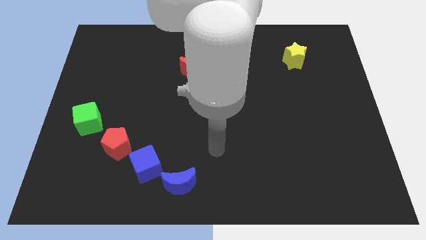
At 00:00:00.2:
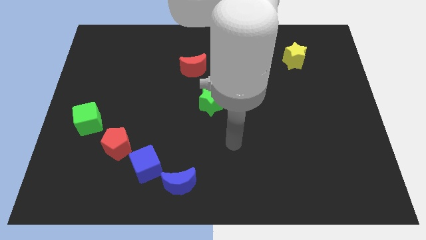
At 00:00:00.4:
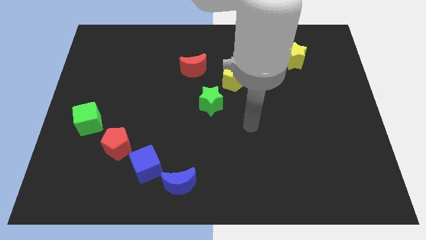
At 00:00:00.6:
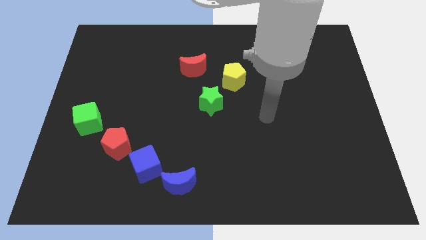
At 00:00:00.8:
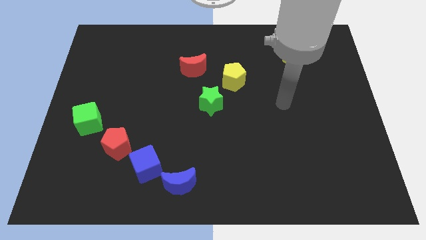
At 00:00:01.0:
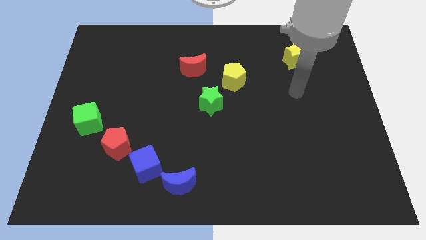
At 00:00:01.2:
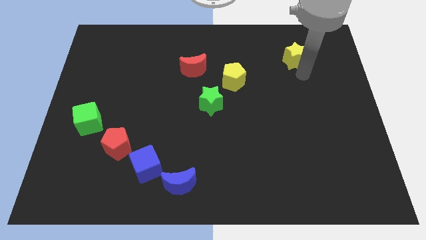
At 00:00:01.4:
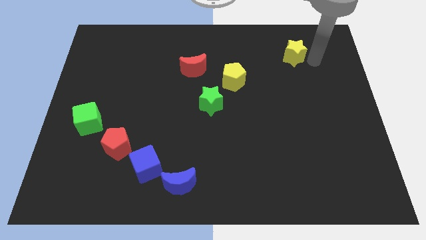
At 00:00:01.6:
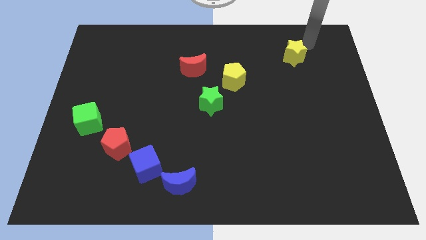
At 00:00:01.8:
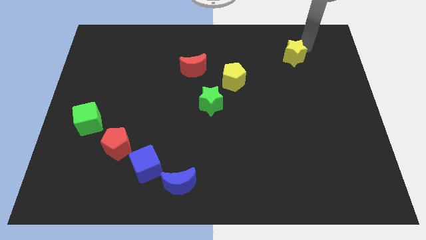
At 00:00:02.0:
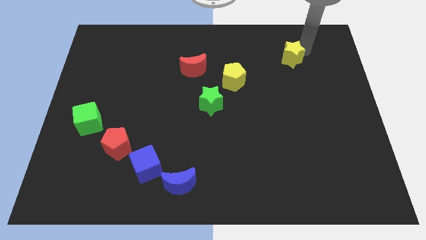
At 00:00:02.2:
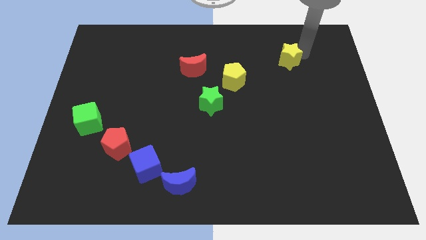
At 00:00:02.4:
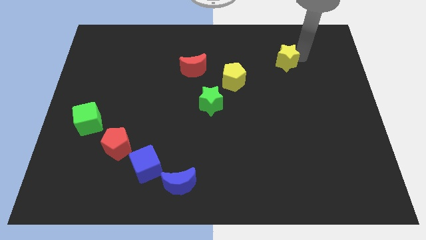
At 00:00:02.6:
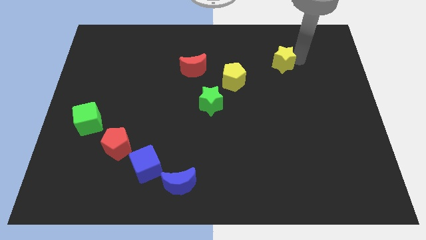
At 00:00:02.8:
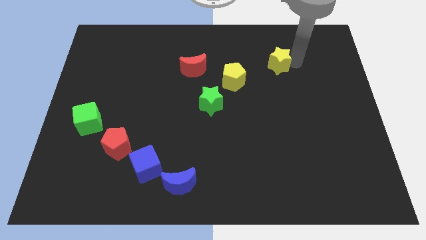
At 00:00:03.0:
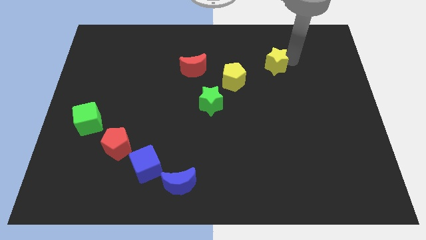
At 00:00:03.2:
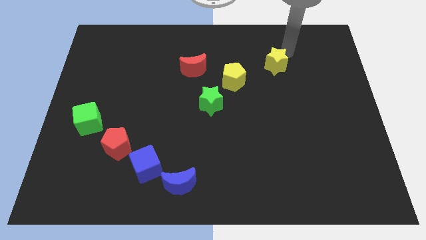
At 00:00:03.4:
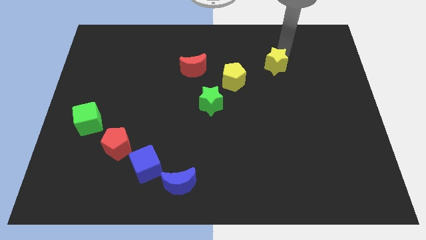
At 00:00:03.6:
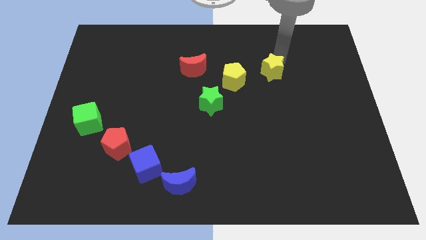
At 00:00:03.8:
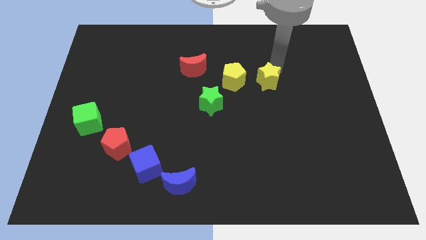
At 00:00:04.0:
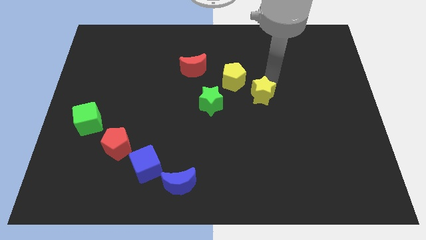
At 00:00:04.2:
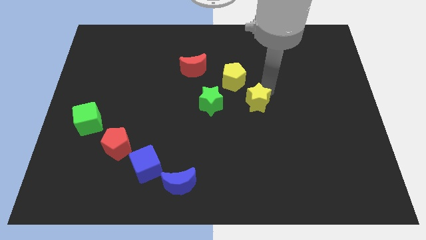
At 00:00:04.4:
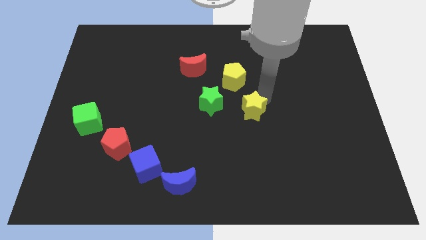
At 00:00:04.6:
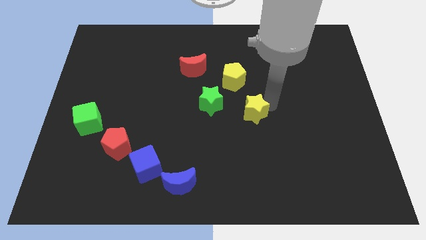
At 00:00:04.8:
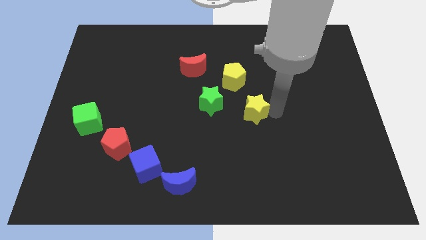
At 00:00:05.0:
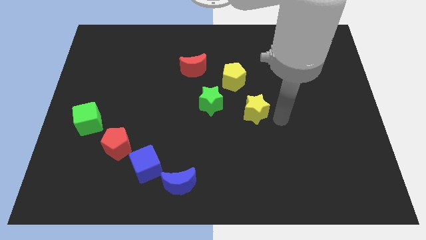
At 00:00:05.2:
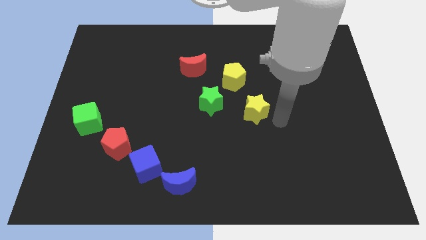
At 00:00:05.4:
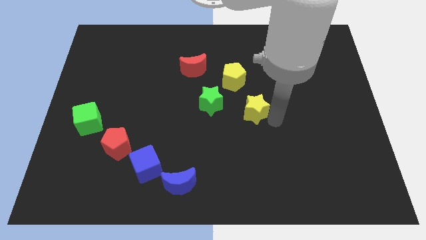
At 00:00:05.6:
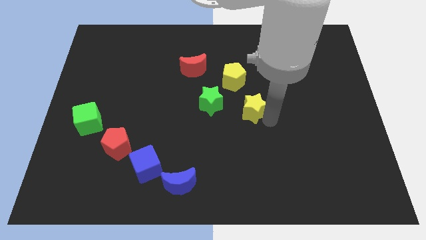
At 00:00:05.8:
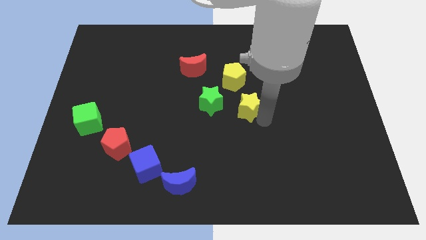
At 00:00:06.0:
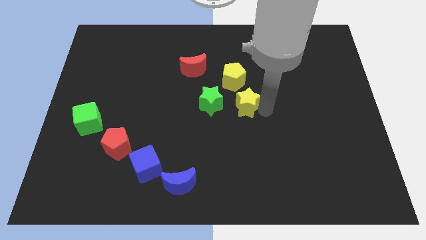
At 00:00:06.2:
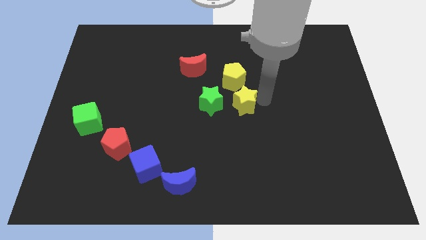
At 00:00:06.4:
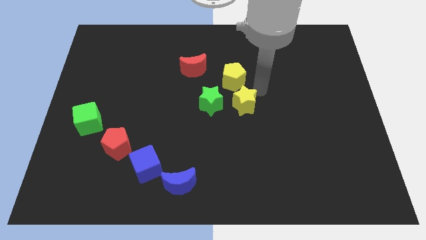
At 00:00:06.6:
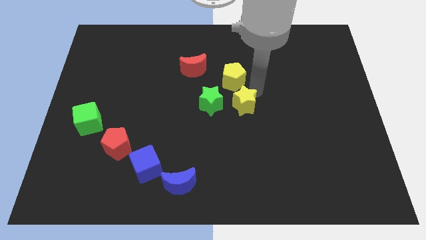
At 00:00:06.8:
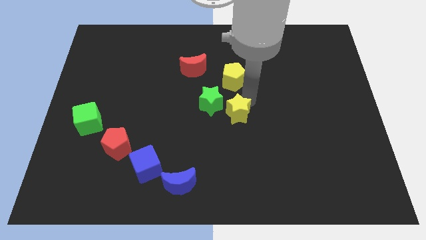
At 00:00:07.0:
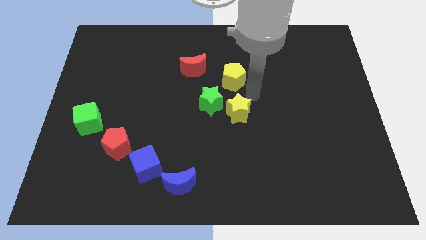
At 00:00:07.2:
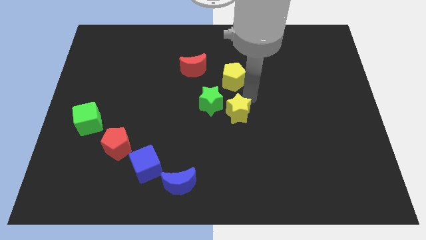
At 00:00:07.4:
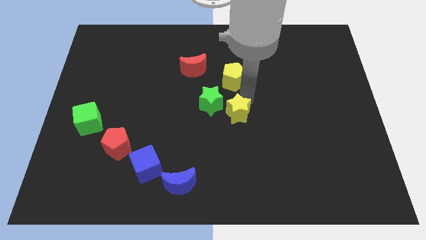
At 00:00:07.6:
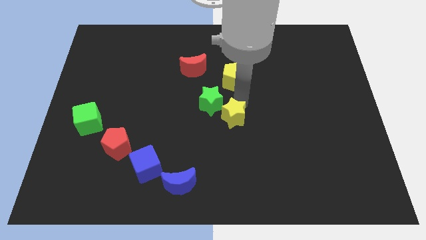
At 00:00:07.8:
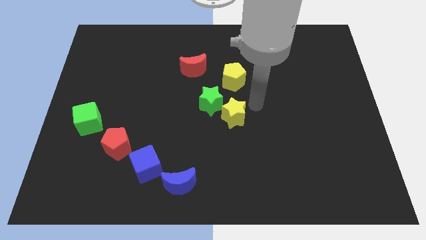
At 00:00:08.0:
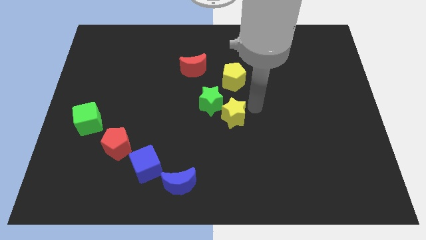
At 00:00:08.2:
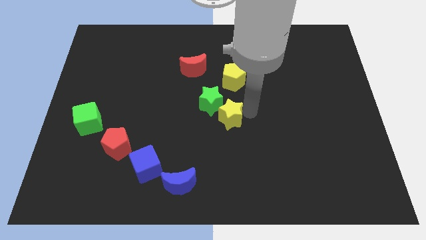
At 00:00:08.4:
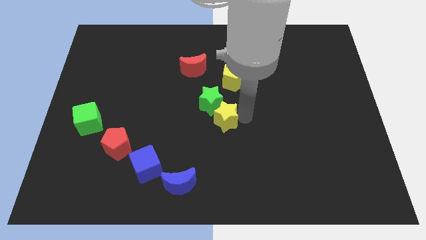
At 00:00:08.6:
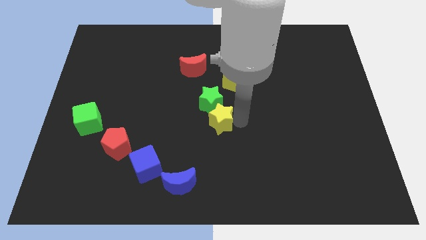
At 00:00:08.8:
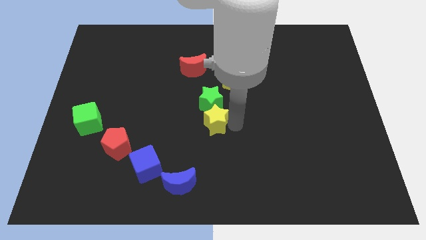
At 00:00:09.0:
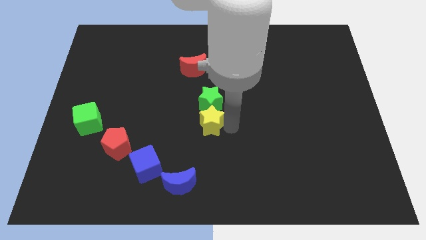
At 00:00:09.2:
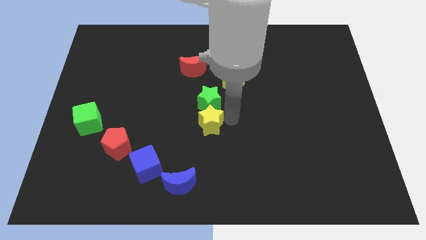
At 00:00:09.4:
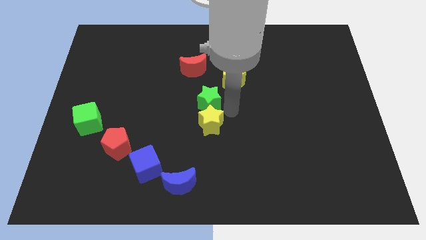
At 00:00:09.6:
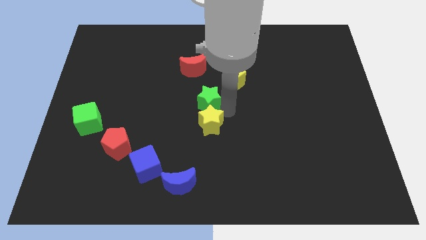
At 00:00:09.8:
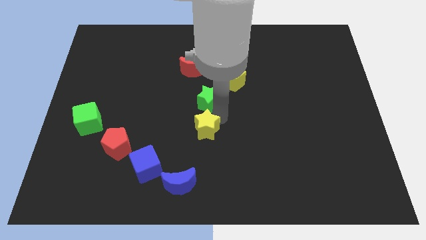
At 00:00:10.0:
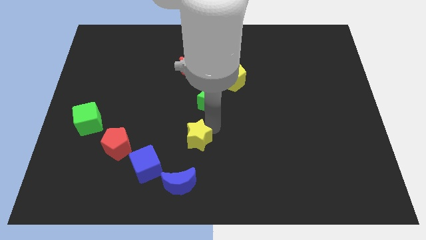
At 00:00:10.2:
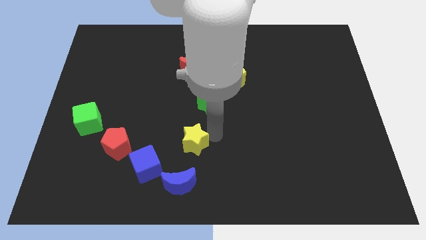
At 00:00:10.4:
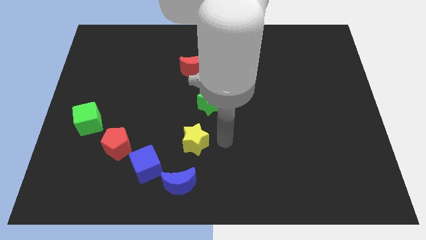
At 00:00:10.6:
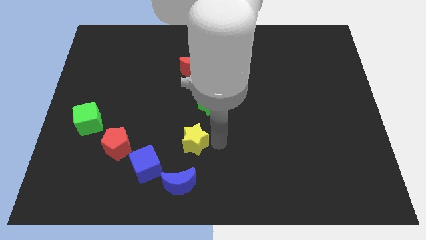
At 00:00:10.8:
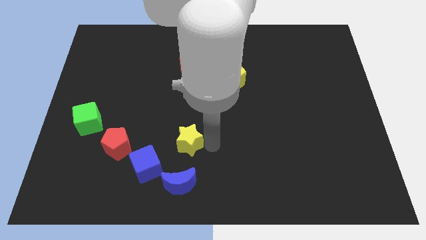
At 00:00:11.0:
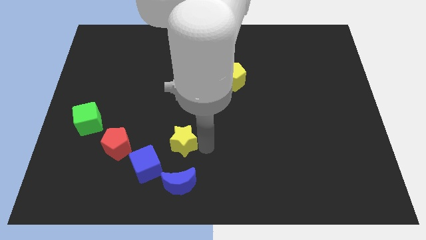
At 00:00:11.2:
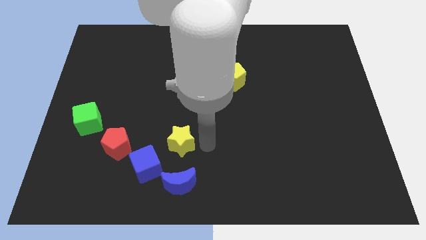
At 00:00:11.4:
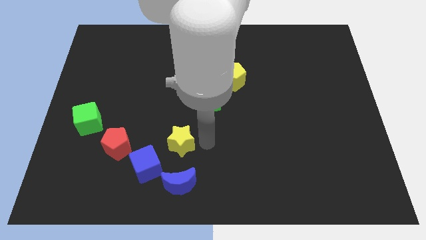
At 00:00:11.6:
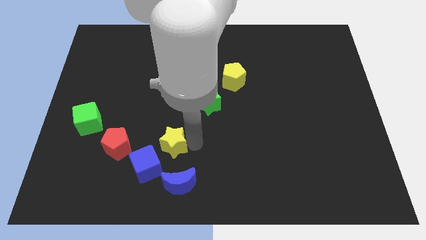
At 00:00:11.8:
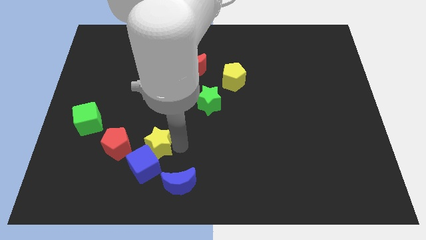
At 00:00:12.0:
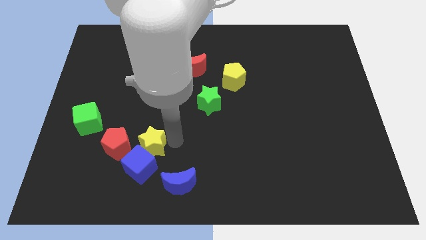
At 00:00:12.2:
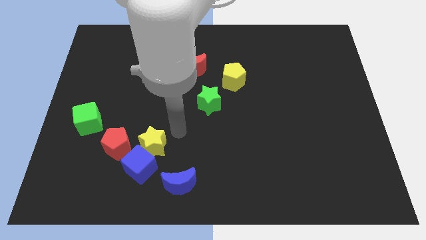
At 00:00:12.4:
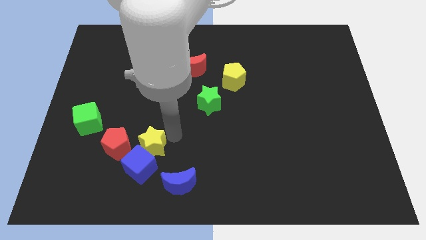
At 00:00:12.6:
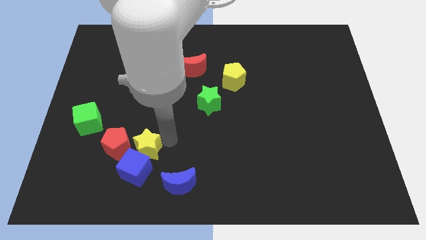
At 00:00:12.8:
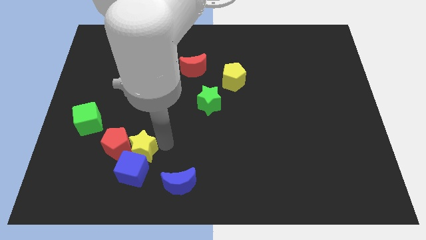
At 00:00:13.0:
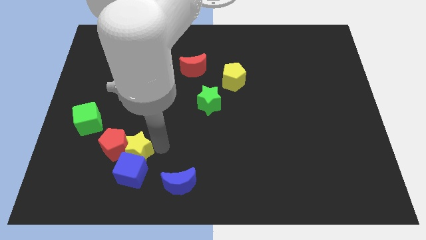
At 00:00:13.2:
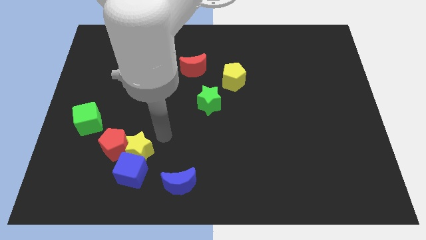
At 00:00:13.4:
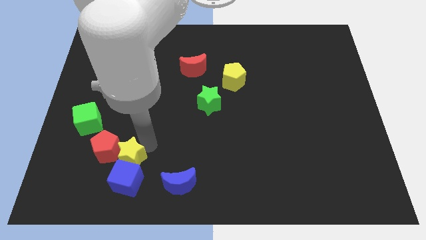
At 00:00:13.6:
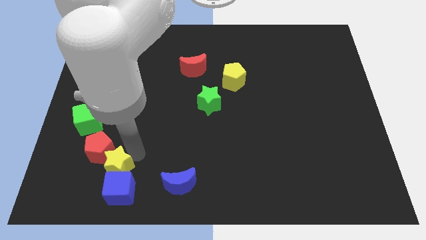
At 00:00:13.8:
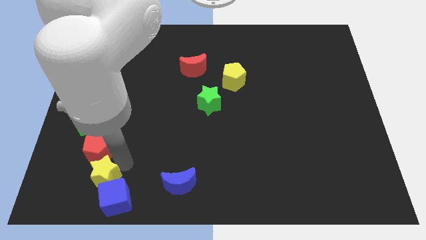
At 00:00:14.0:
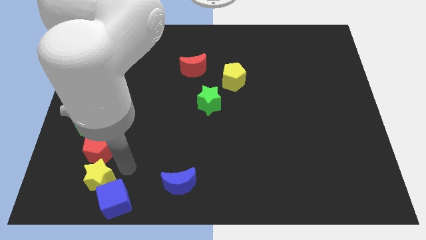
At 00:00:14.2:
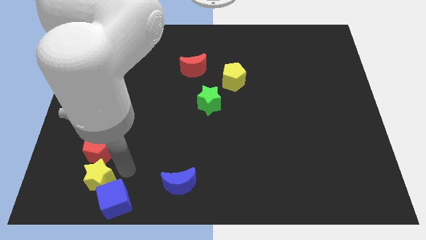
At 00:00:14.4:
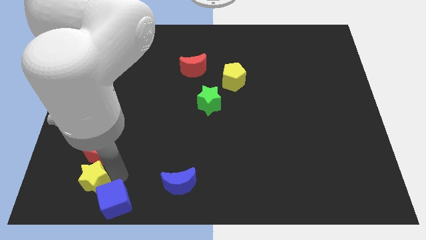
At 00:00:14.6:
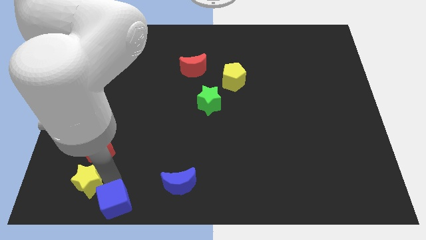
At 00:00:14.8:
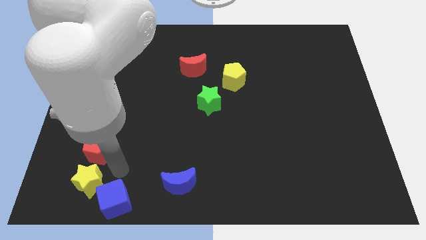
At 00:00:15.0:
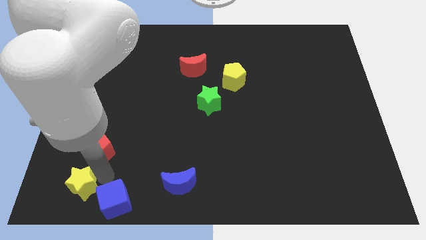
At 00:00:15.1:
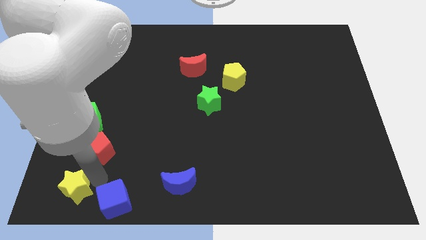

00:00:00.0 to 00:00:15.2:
put the yellow star to the lower left corner
